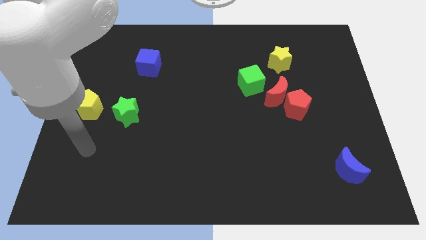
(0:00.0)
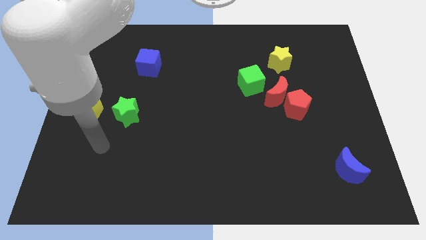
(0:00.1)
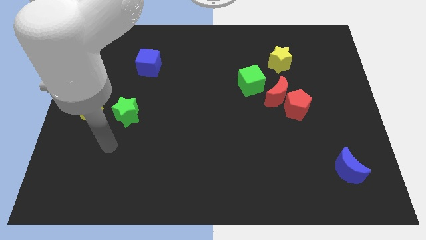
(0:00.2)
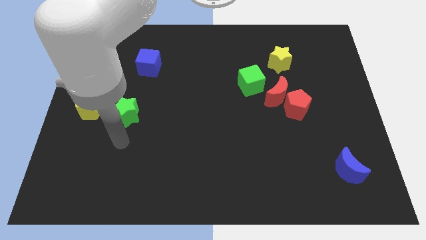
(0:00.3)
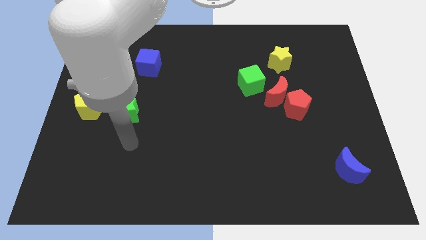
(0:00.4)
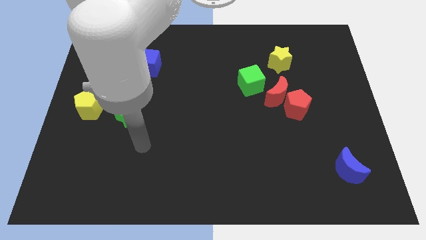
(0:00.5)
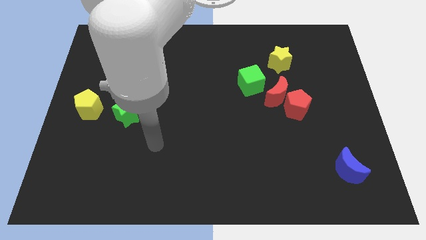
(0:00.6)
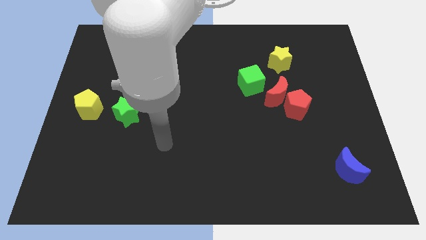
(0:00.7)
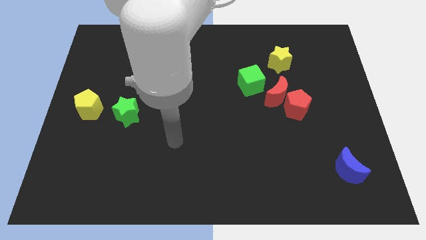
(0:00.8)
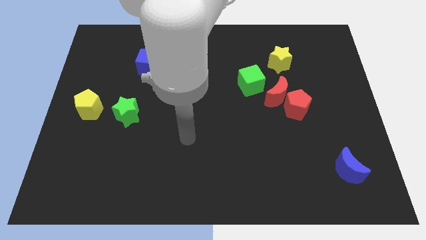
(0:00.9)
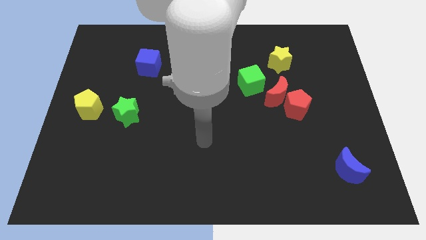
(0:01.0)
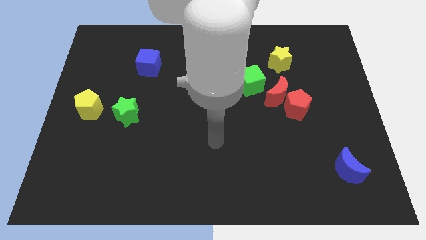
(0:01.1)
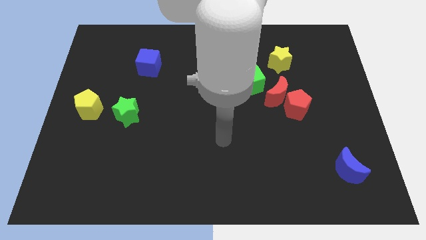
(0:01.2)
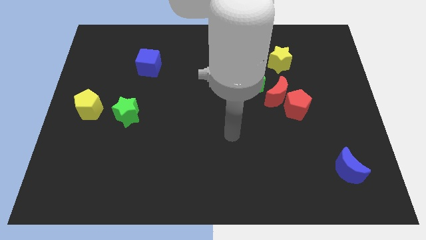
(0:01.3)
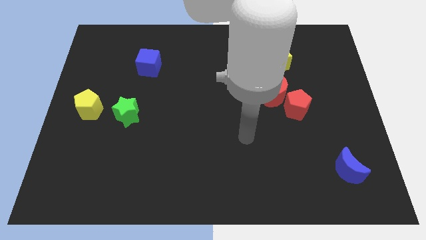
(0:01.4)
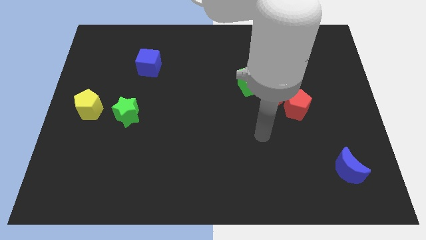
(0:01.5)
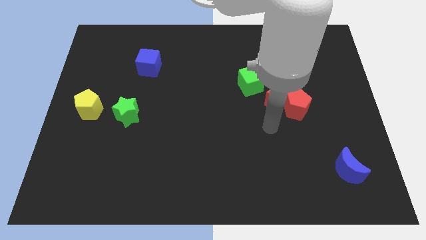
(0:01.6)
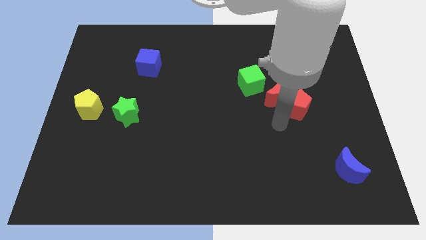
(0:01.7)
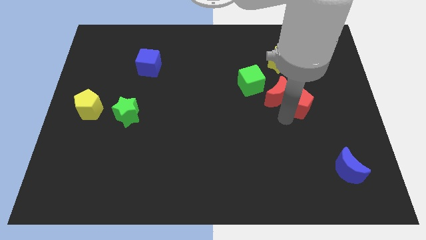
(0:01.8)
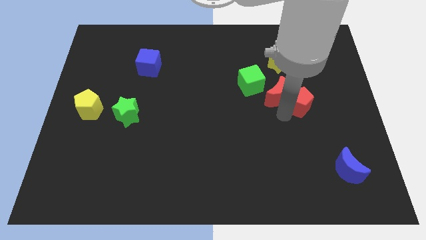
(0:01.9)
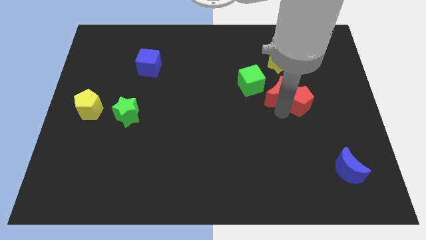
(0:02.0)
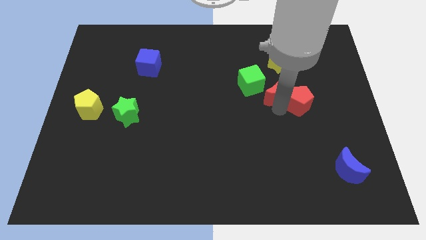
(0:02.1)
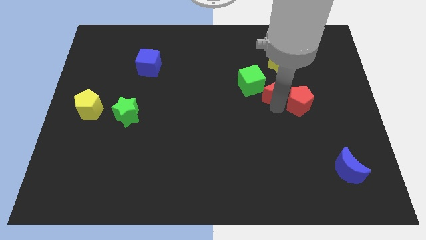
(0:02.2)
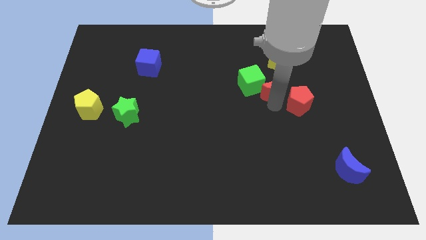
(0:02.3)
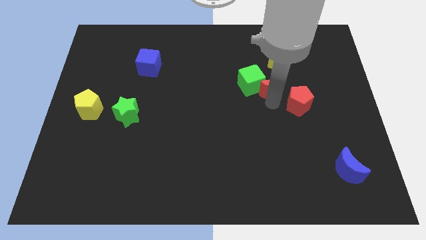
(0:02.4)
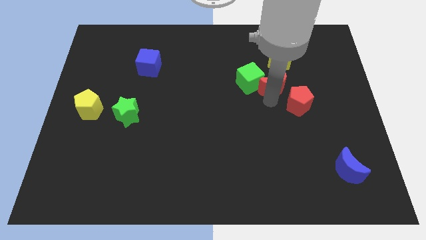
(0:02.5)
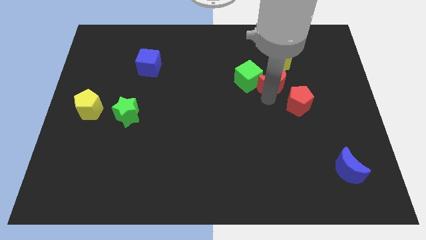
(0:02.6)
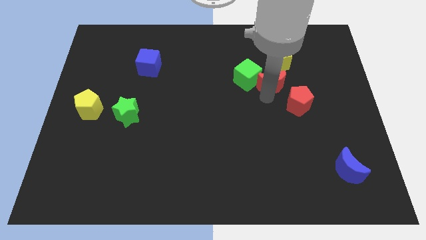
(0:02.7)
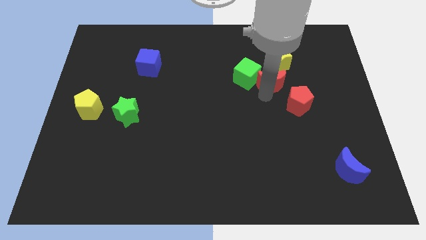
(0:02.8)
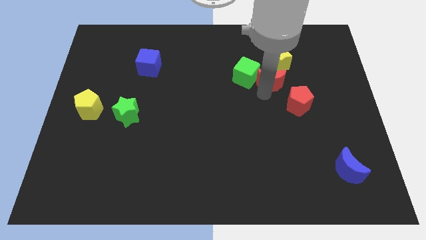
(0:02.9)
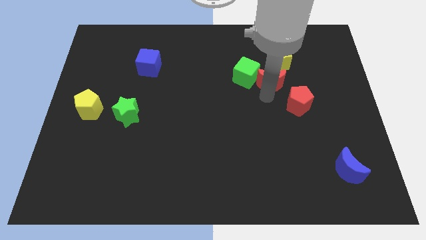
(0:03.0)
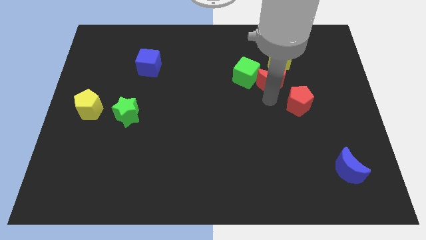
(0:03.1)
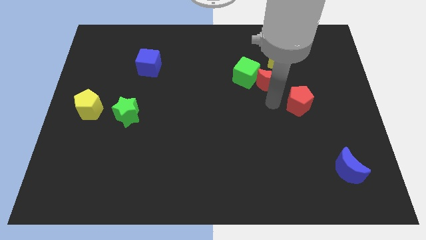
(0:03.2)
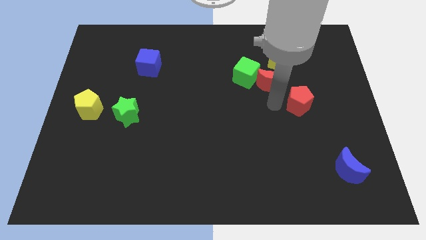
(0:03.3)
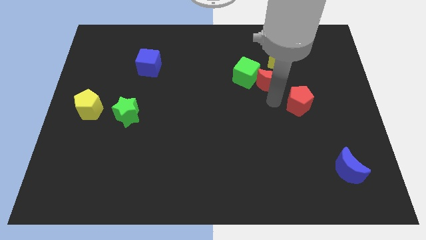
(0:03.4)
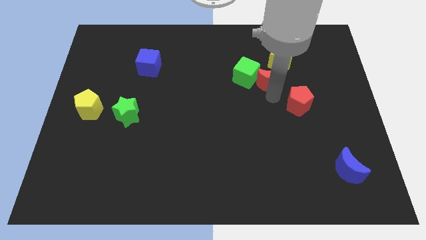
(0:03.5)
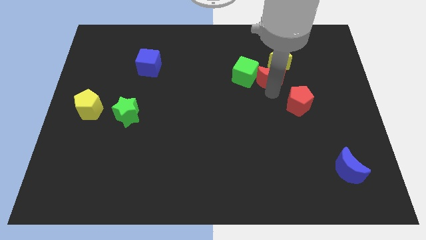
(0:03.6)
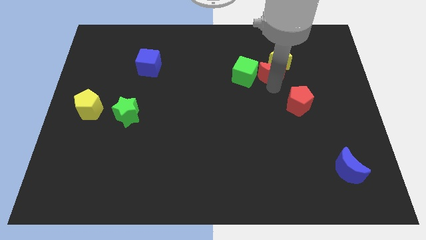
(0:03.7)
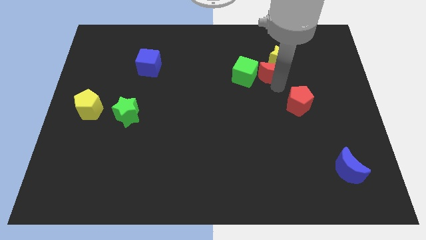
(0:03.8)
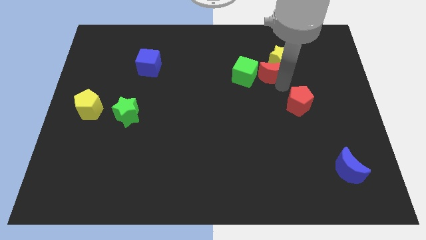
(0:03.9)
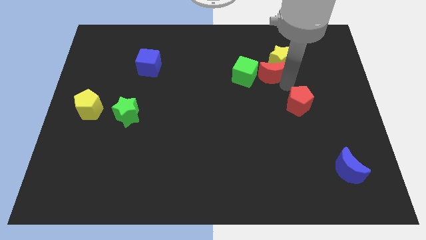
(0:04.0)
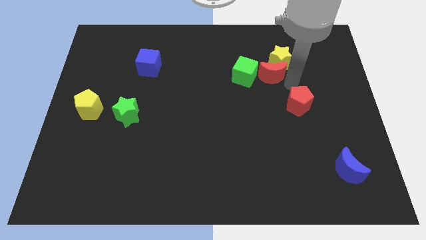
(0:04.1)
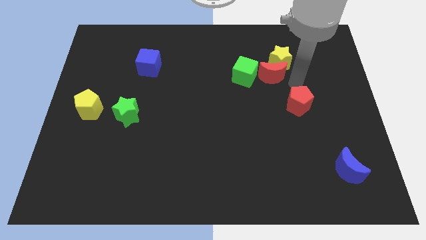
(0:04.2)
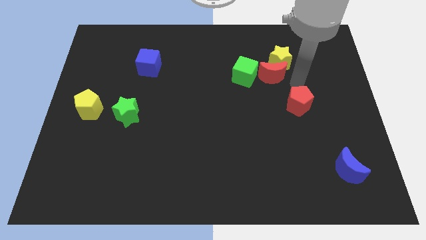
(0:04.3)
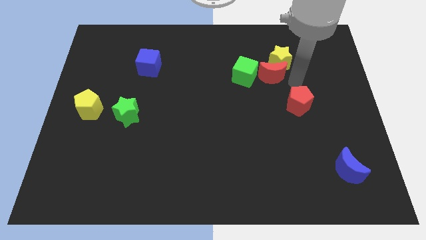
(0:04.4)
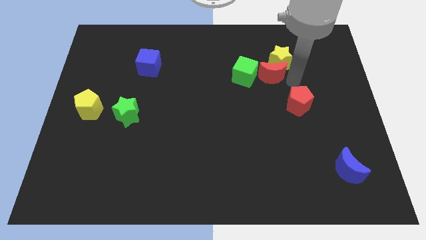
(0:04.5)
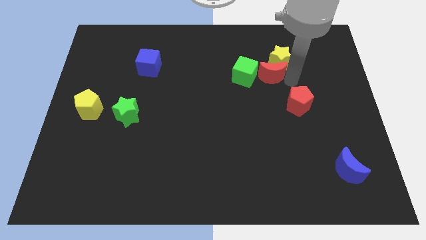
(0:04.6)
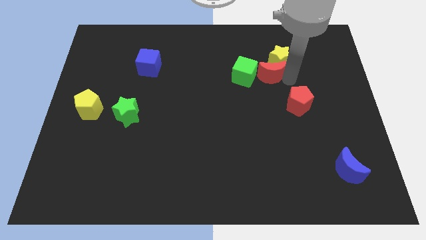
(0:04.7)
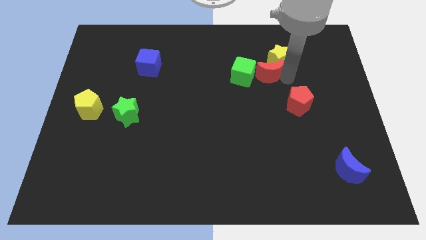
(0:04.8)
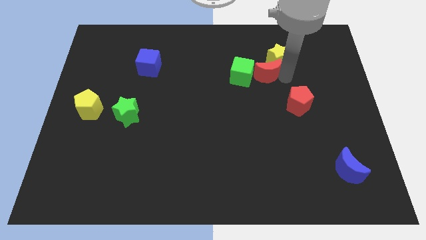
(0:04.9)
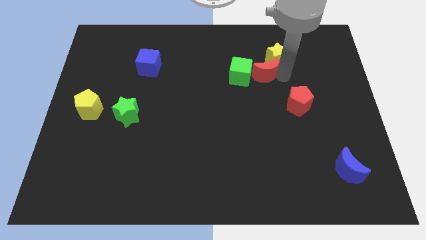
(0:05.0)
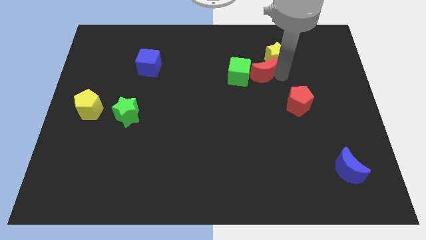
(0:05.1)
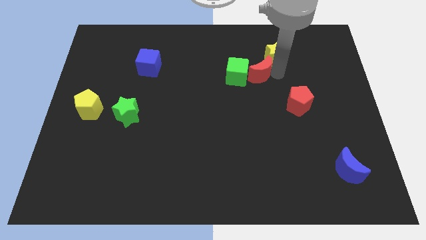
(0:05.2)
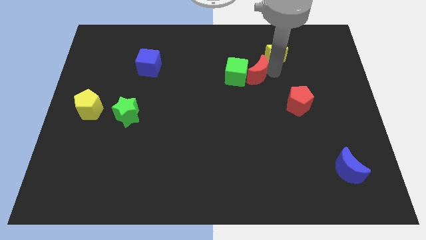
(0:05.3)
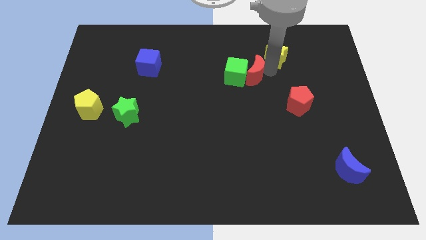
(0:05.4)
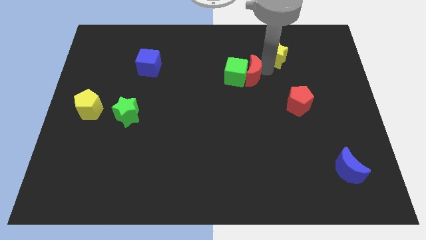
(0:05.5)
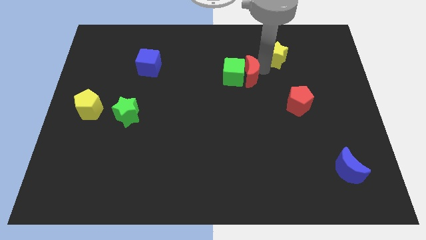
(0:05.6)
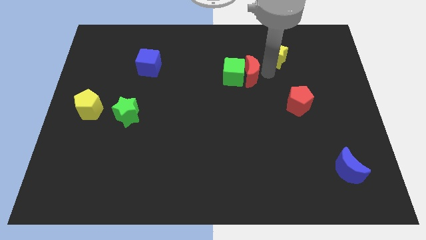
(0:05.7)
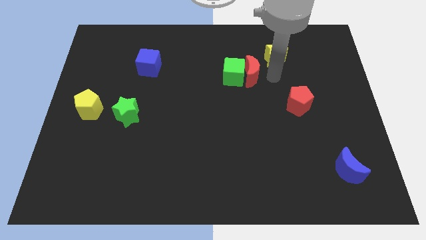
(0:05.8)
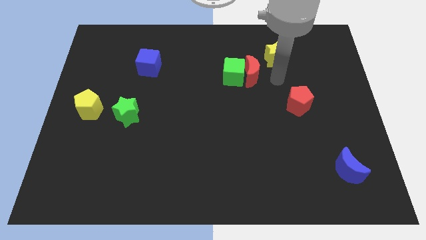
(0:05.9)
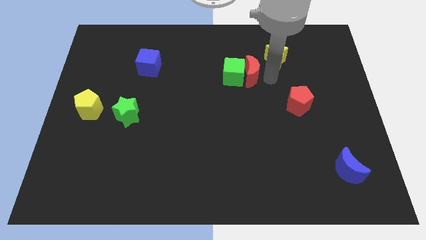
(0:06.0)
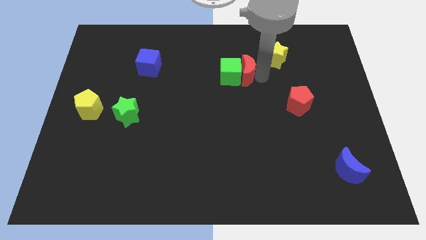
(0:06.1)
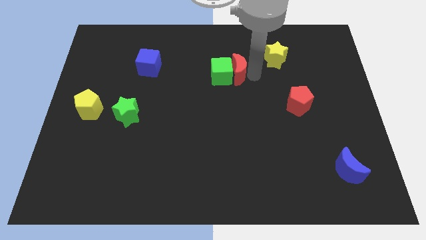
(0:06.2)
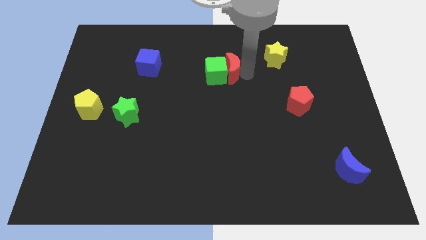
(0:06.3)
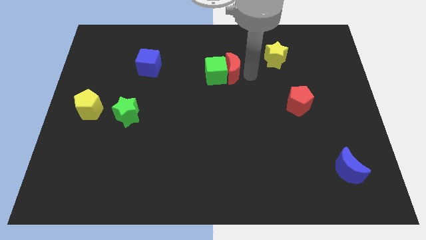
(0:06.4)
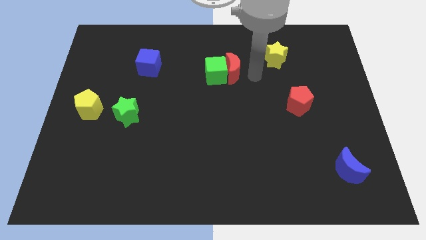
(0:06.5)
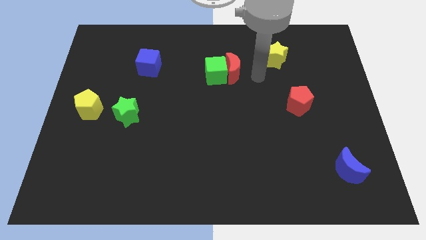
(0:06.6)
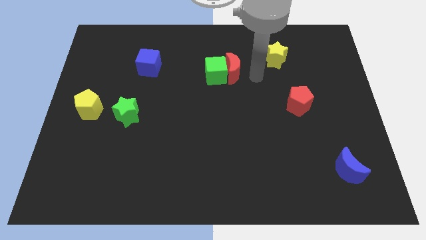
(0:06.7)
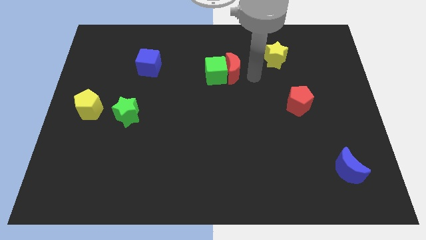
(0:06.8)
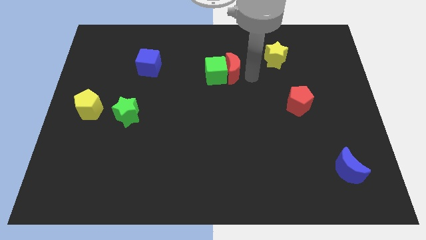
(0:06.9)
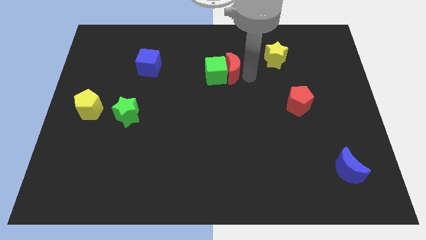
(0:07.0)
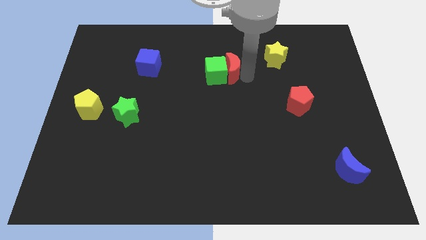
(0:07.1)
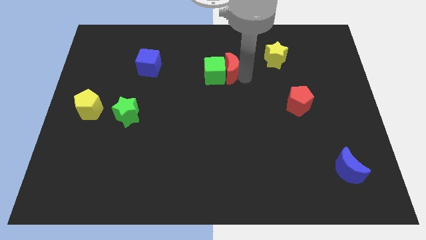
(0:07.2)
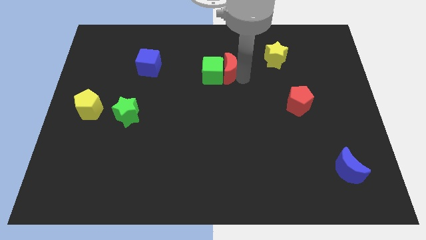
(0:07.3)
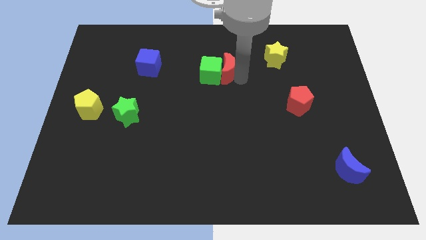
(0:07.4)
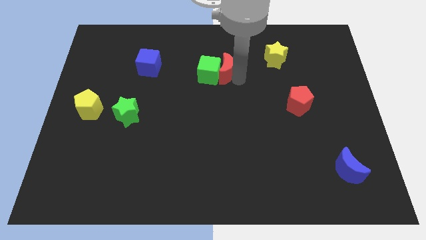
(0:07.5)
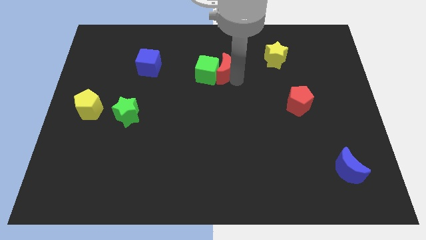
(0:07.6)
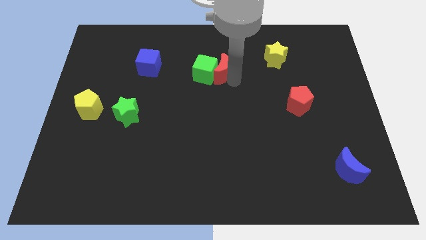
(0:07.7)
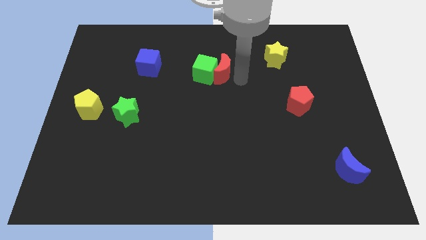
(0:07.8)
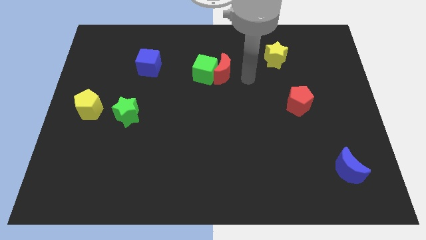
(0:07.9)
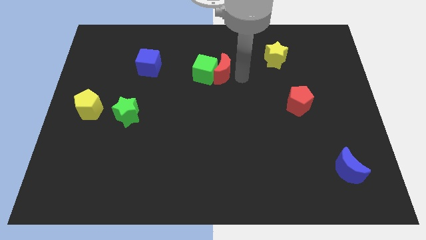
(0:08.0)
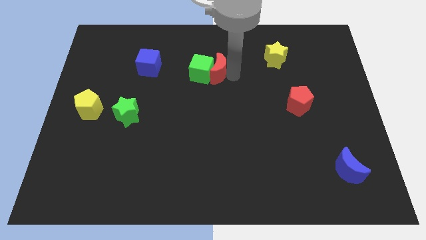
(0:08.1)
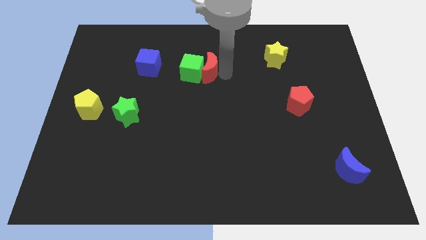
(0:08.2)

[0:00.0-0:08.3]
slide the red moon to the right side of the blue cube

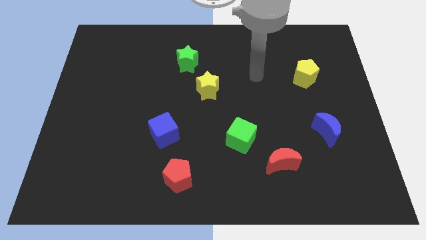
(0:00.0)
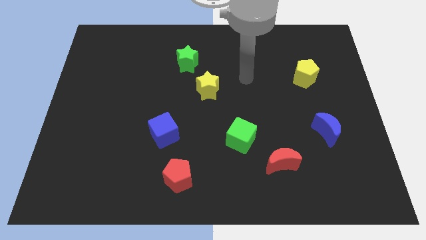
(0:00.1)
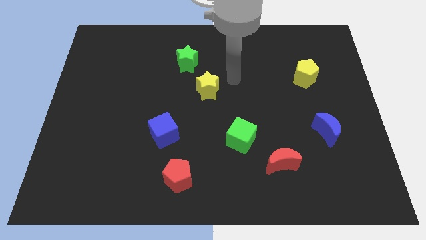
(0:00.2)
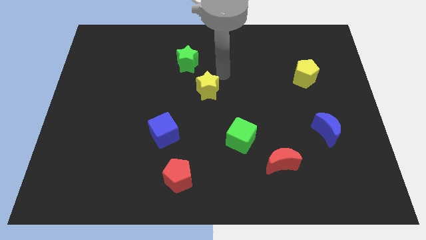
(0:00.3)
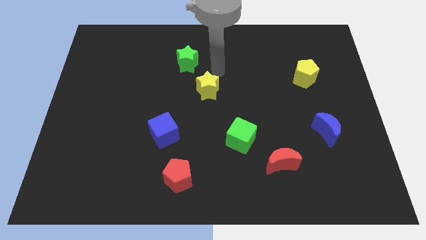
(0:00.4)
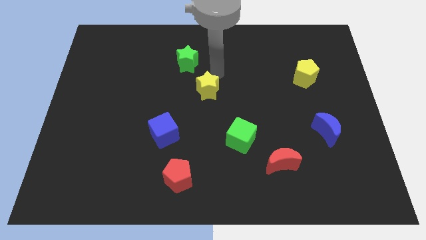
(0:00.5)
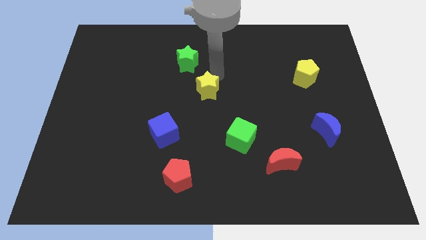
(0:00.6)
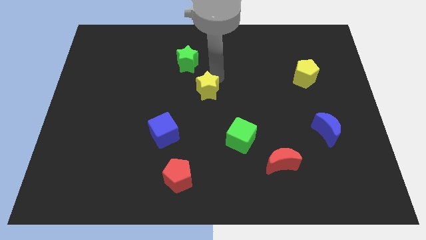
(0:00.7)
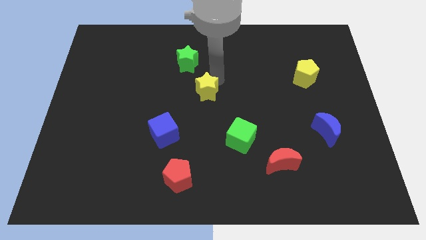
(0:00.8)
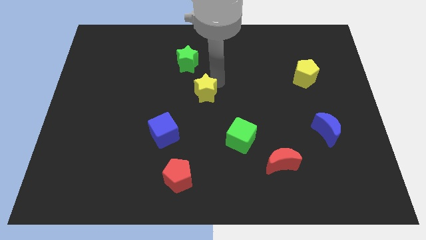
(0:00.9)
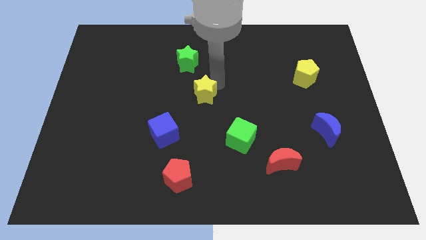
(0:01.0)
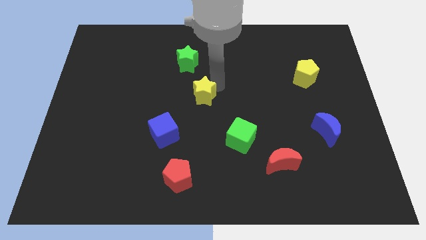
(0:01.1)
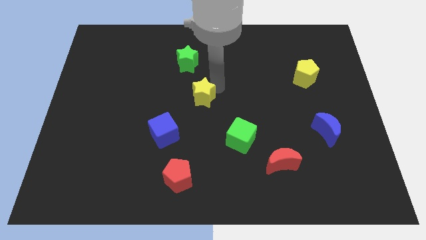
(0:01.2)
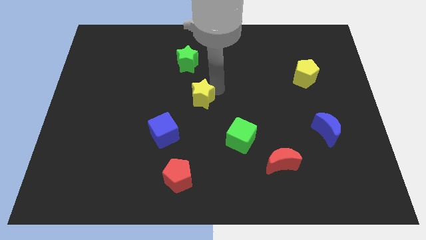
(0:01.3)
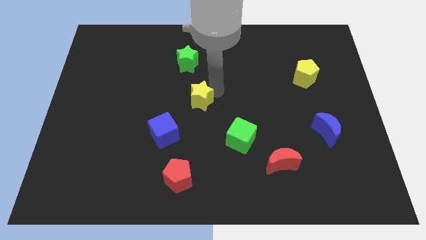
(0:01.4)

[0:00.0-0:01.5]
push the yellow star diagonally up and to the right of the blue cube
